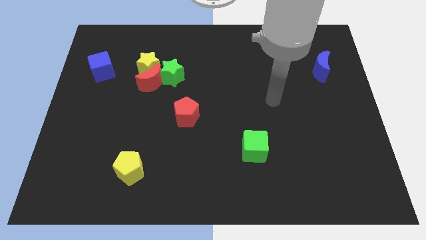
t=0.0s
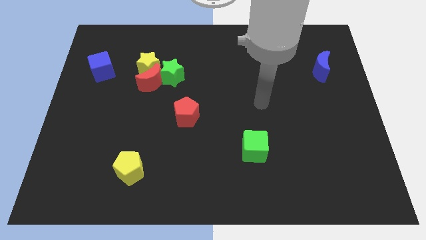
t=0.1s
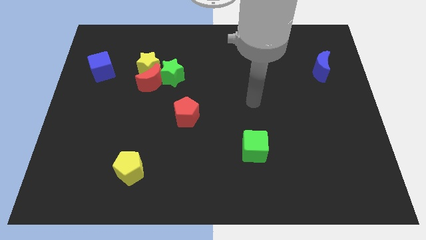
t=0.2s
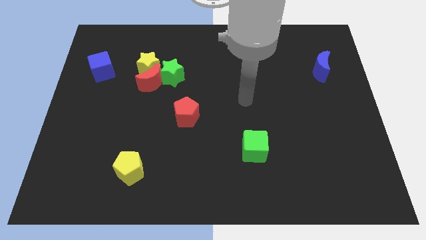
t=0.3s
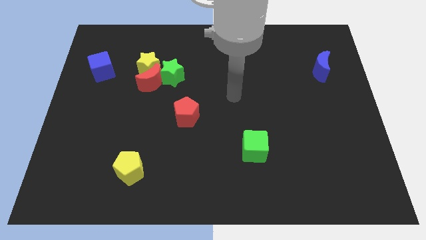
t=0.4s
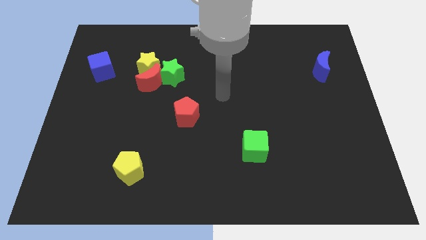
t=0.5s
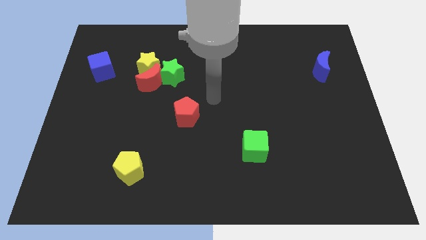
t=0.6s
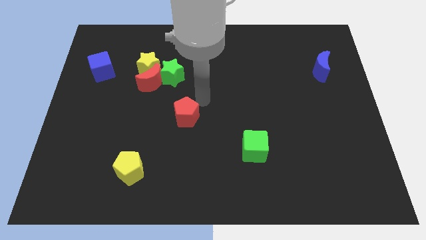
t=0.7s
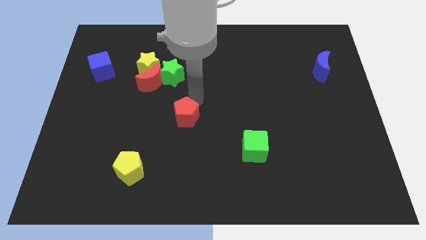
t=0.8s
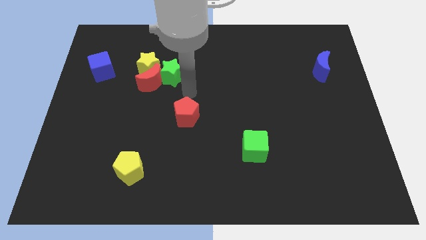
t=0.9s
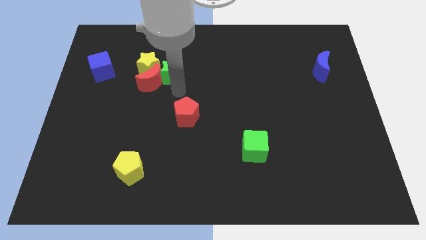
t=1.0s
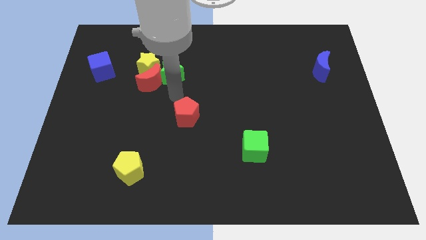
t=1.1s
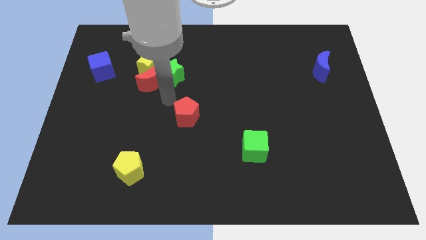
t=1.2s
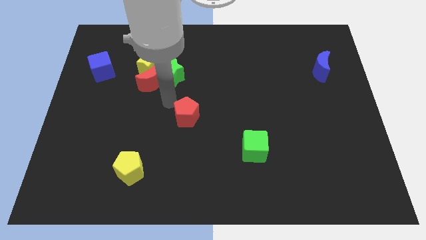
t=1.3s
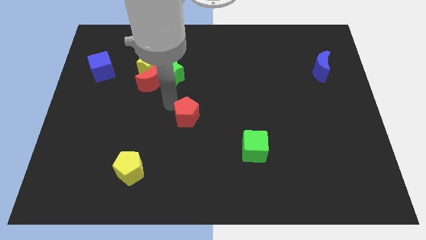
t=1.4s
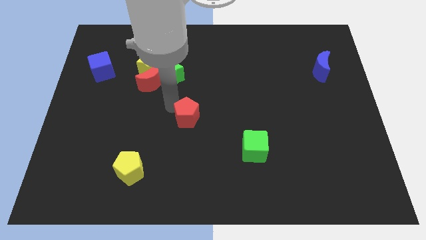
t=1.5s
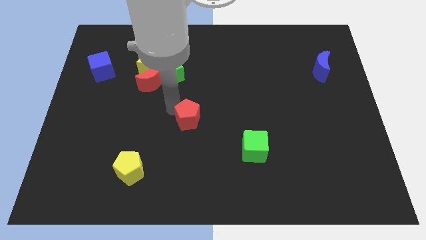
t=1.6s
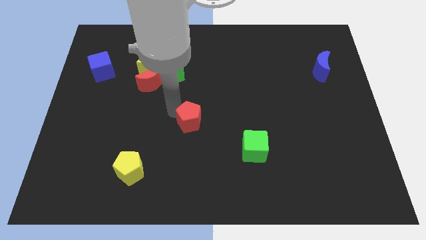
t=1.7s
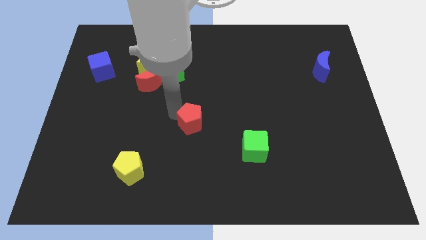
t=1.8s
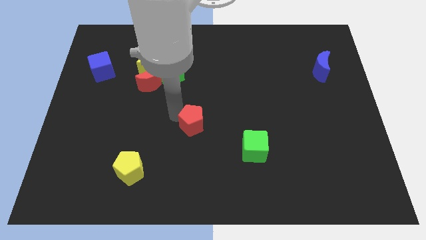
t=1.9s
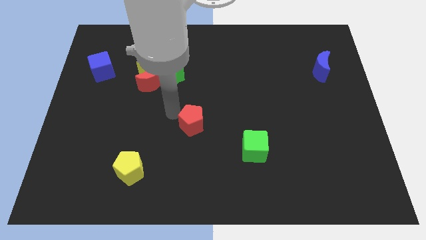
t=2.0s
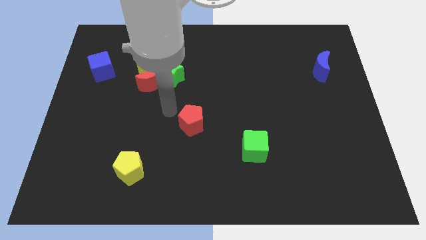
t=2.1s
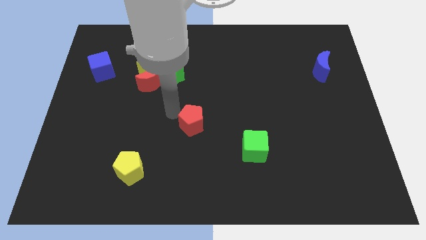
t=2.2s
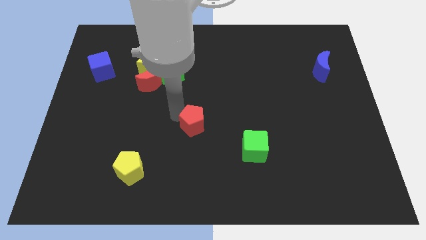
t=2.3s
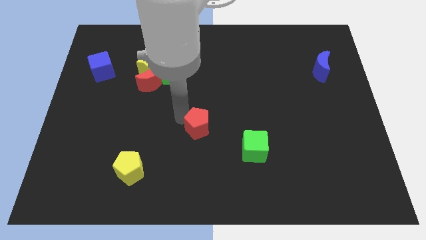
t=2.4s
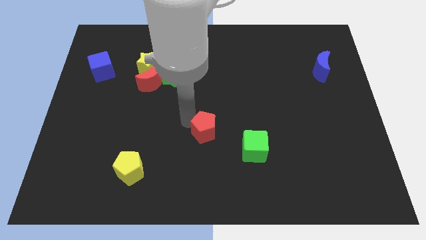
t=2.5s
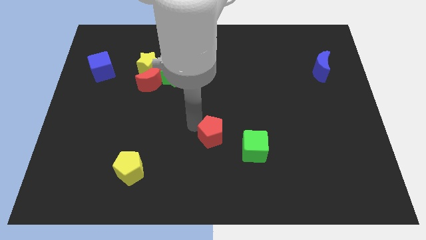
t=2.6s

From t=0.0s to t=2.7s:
slide the red pentagon somewhat down and then to the right

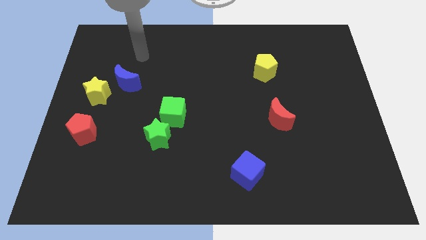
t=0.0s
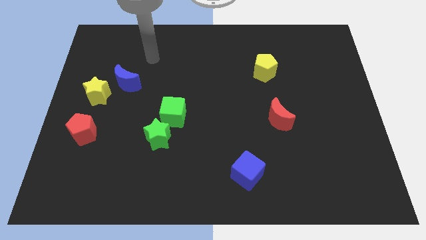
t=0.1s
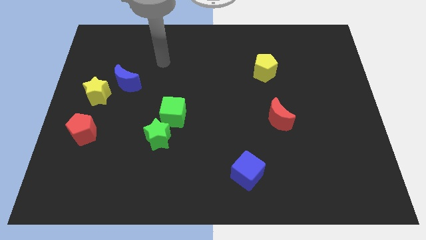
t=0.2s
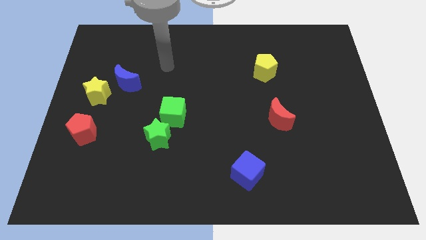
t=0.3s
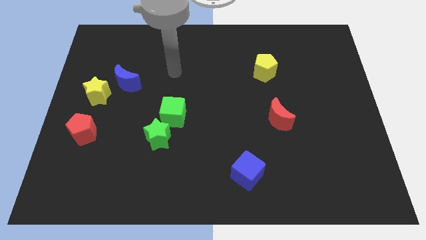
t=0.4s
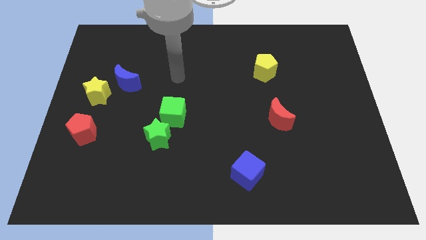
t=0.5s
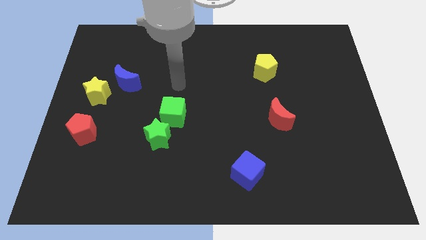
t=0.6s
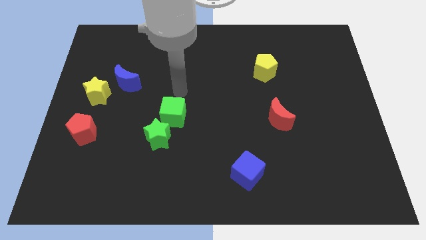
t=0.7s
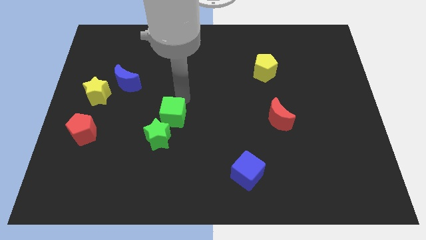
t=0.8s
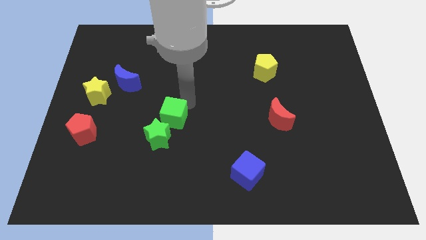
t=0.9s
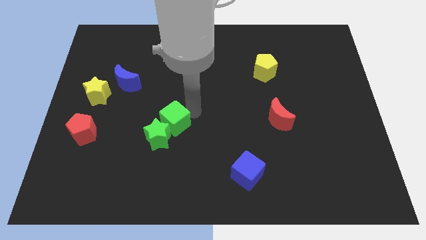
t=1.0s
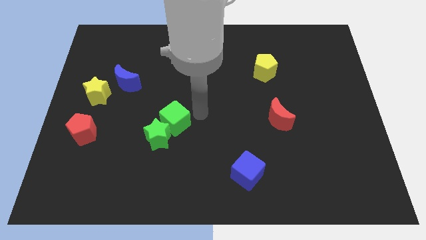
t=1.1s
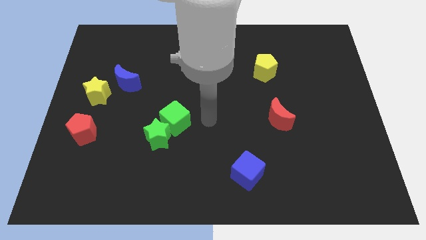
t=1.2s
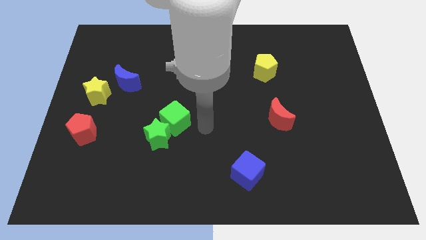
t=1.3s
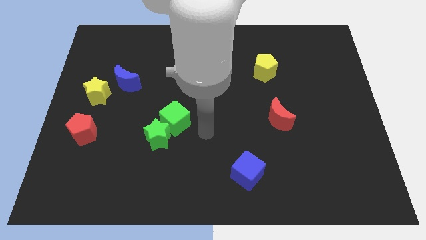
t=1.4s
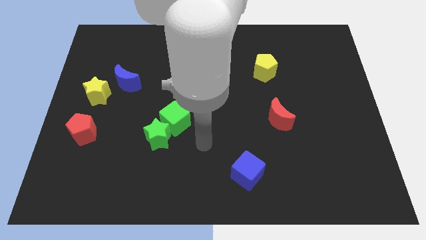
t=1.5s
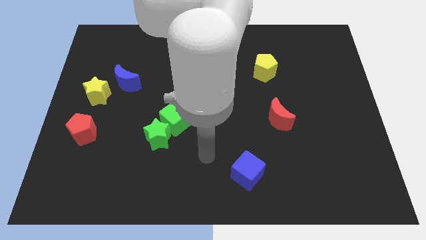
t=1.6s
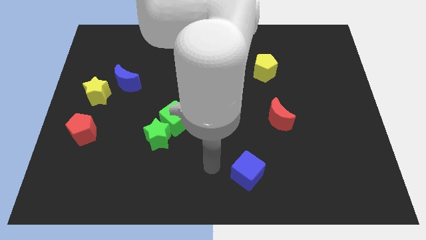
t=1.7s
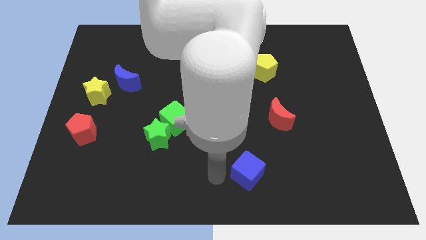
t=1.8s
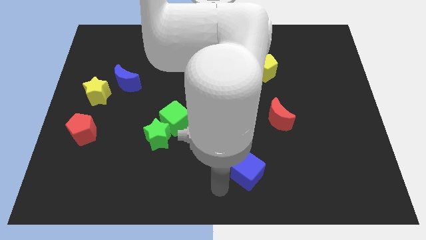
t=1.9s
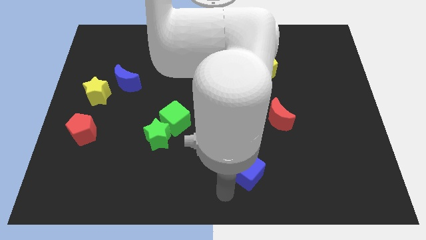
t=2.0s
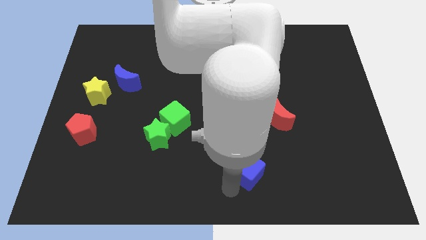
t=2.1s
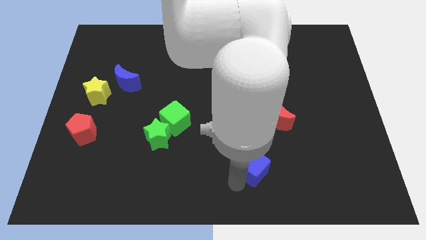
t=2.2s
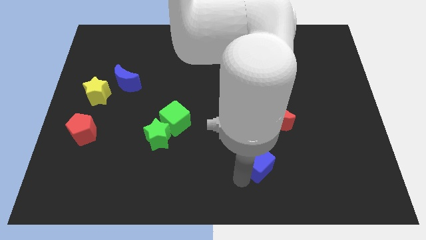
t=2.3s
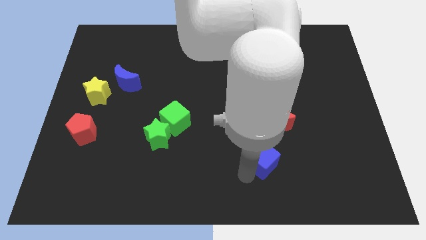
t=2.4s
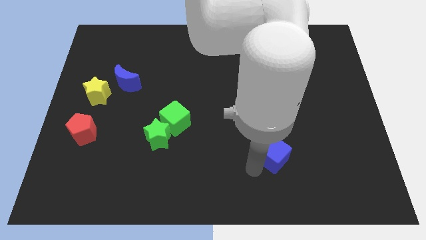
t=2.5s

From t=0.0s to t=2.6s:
push the blue cube upwards and to the right diagonally a little

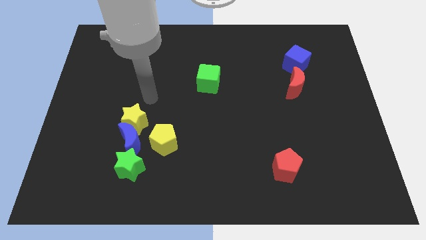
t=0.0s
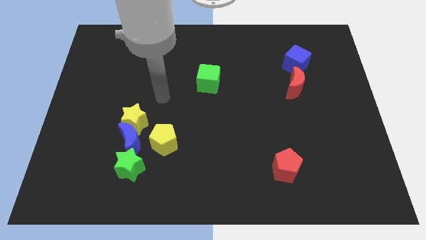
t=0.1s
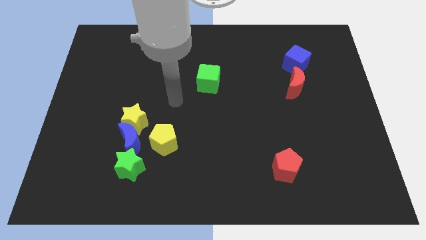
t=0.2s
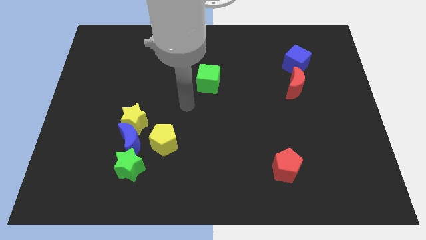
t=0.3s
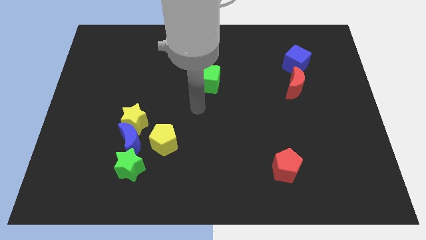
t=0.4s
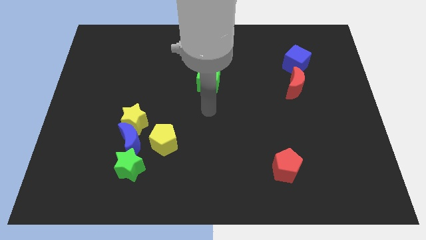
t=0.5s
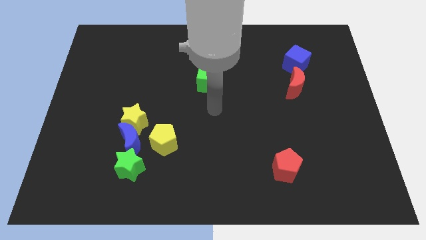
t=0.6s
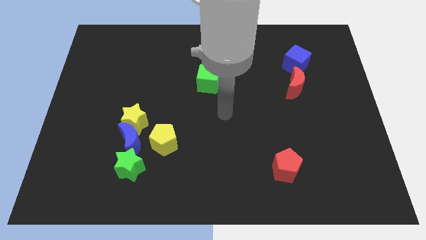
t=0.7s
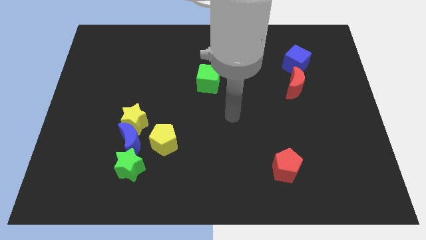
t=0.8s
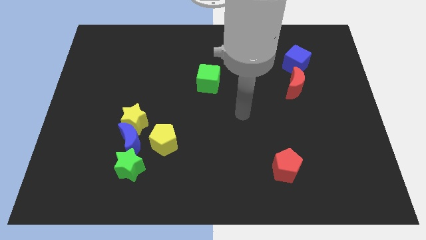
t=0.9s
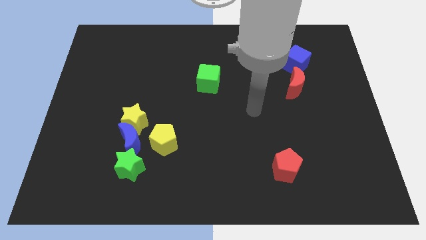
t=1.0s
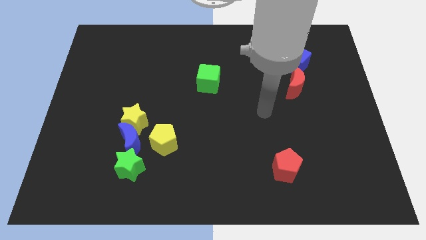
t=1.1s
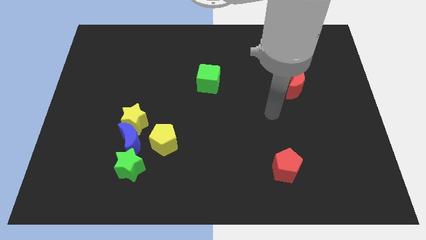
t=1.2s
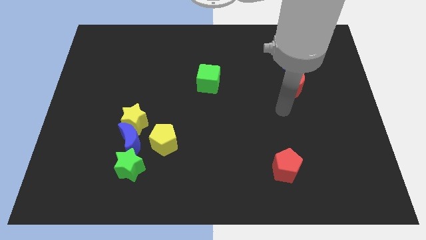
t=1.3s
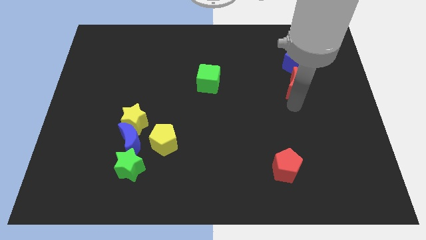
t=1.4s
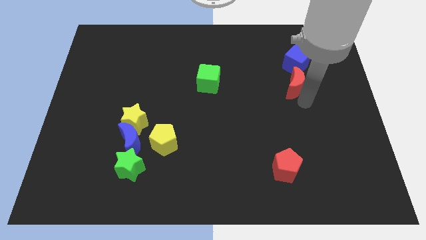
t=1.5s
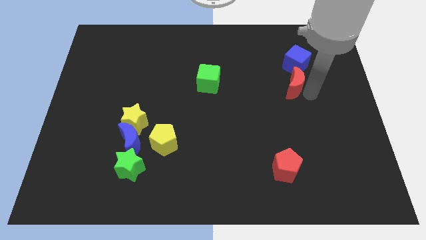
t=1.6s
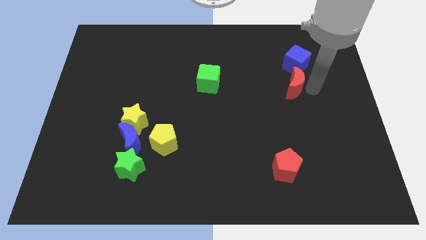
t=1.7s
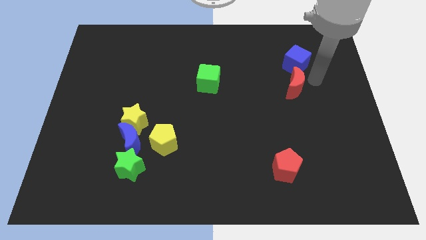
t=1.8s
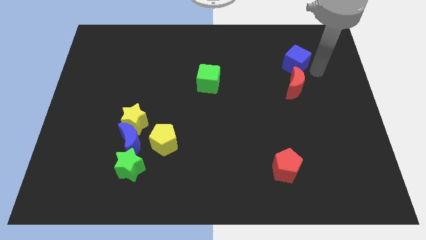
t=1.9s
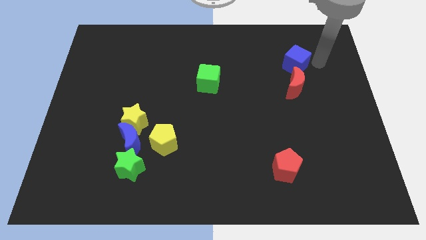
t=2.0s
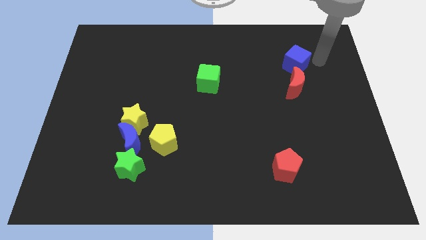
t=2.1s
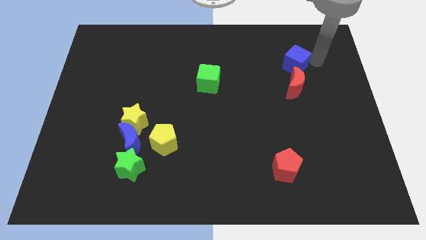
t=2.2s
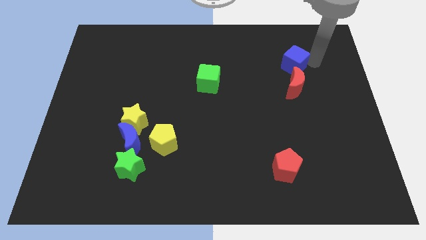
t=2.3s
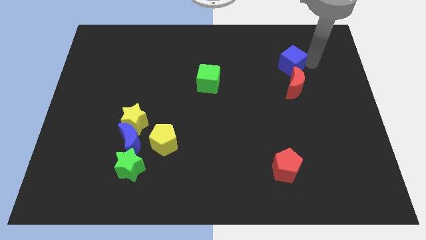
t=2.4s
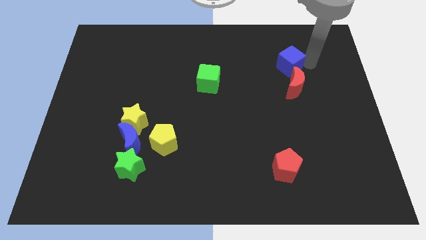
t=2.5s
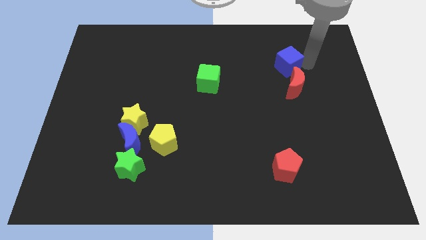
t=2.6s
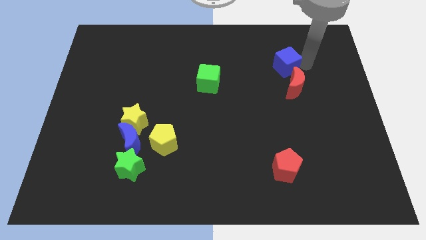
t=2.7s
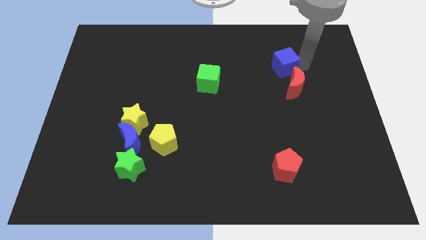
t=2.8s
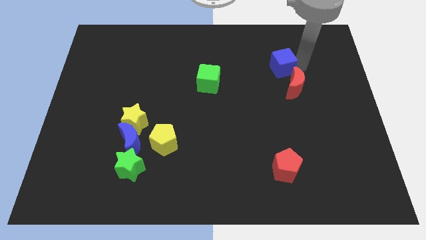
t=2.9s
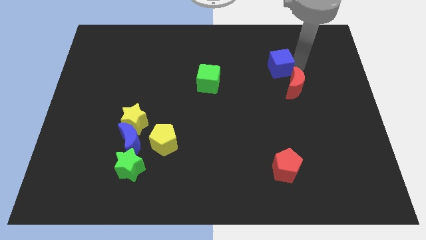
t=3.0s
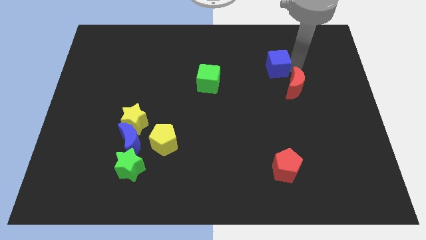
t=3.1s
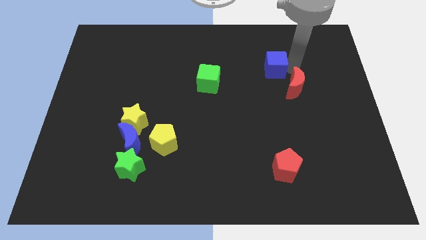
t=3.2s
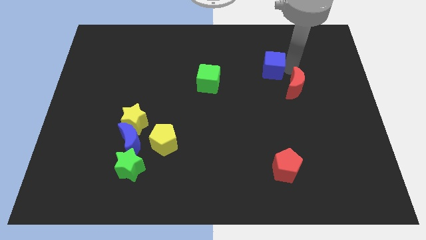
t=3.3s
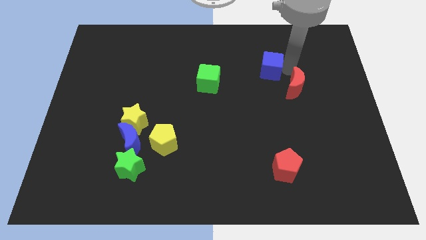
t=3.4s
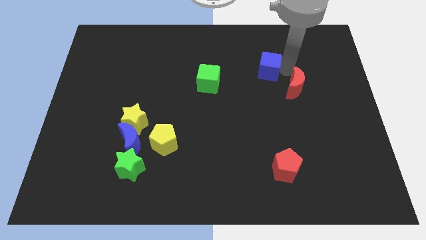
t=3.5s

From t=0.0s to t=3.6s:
move the blue cube slightly to the left
